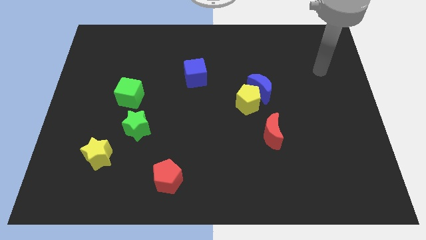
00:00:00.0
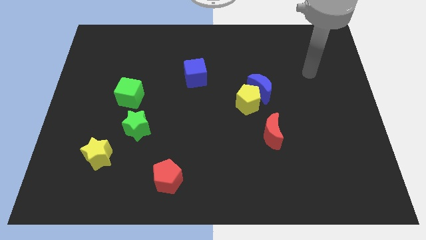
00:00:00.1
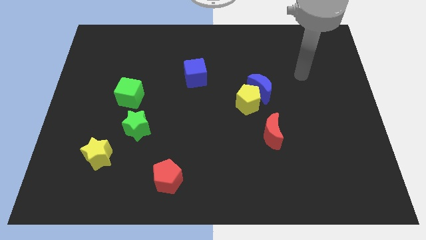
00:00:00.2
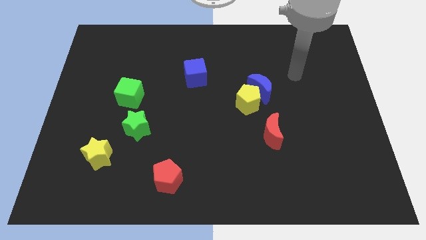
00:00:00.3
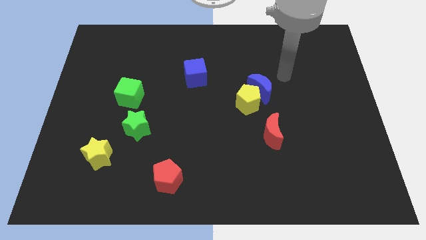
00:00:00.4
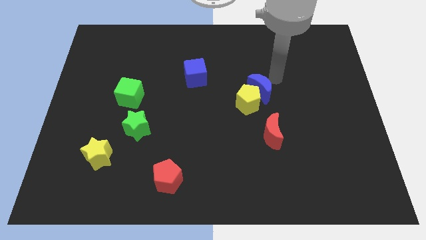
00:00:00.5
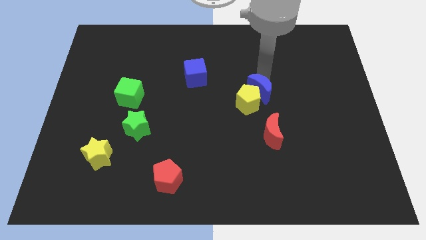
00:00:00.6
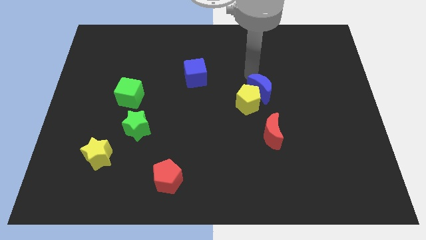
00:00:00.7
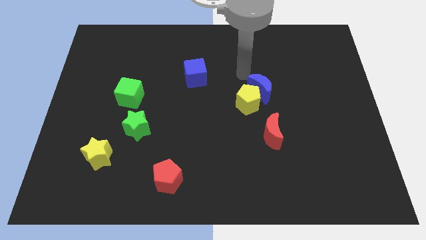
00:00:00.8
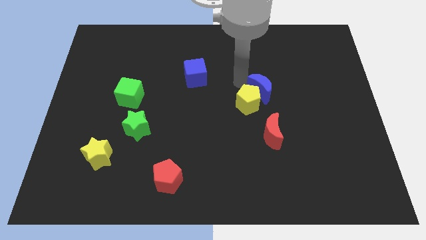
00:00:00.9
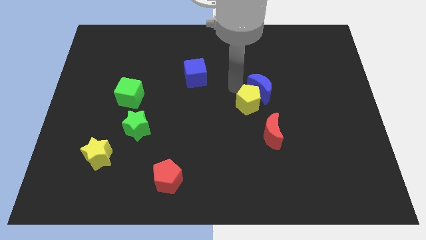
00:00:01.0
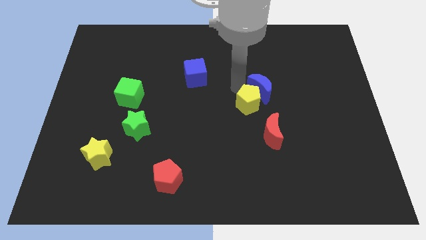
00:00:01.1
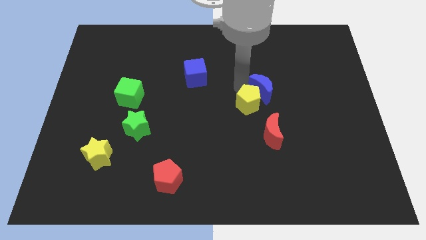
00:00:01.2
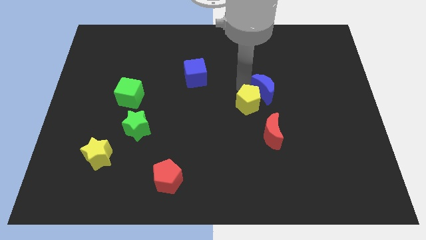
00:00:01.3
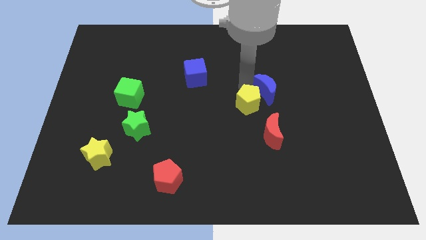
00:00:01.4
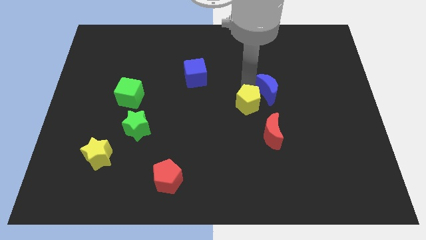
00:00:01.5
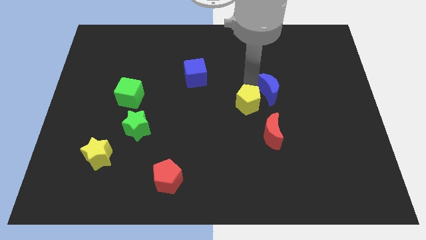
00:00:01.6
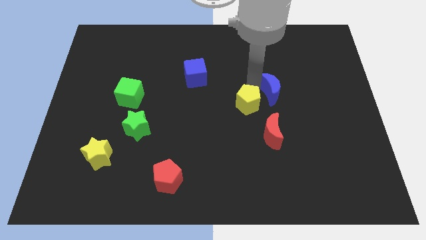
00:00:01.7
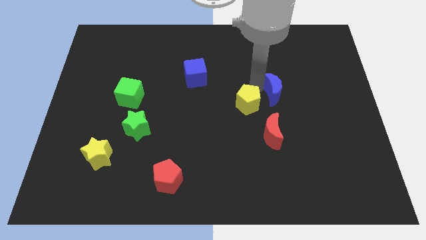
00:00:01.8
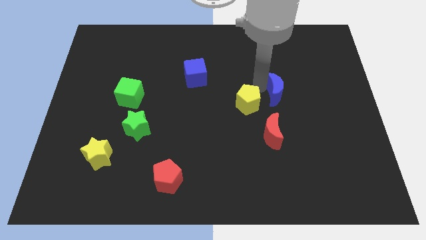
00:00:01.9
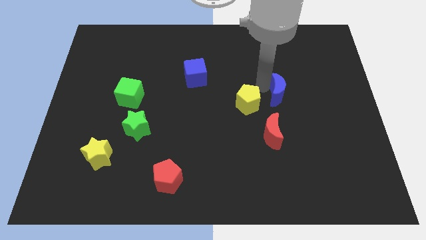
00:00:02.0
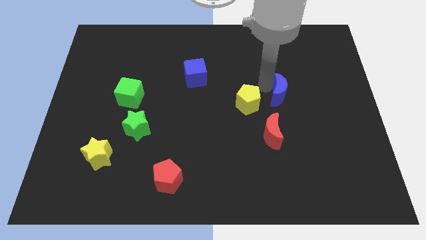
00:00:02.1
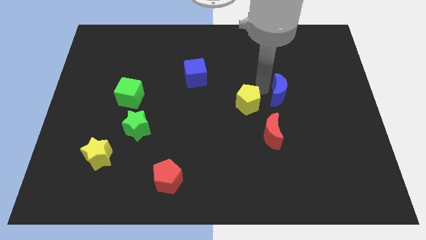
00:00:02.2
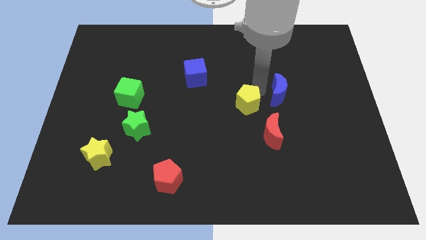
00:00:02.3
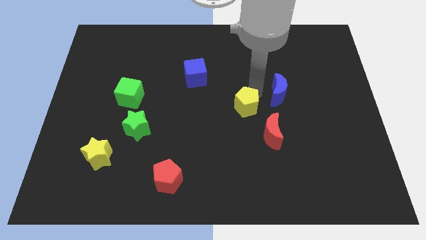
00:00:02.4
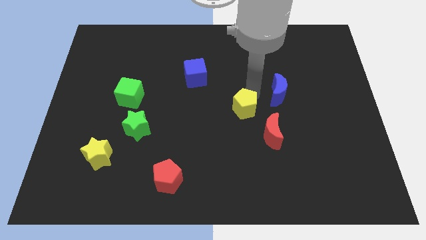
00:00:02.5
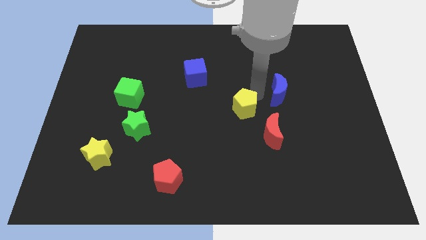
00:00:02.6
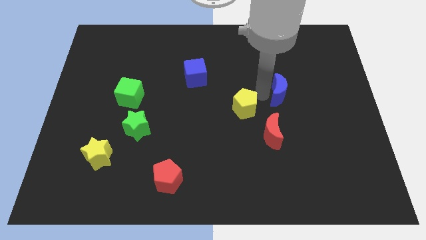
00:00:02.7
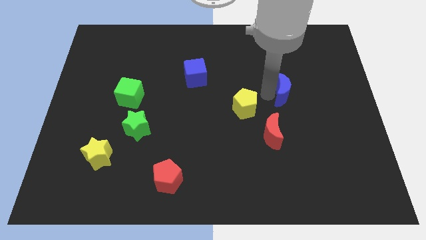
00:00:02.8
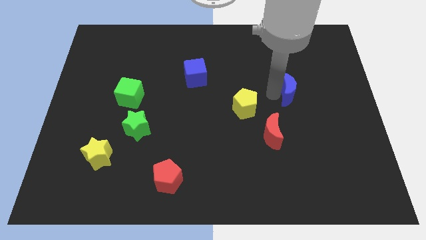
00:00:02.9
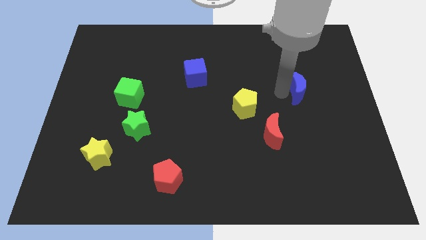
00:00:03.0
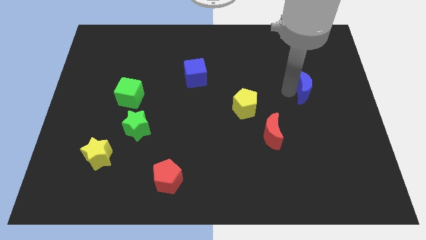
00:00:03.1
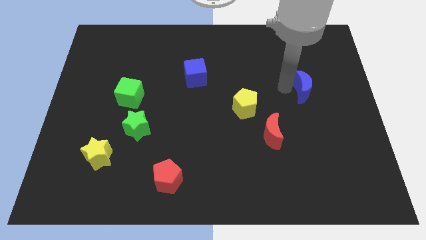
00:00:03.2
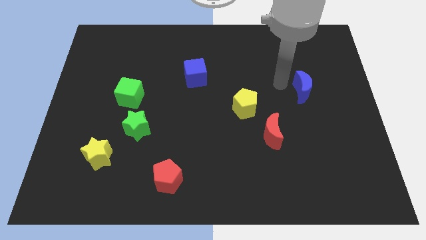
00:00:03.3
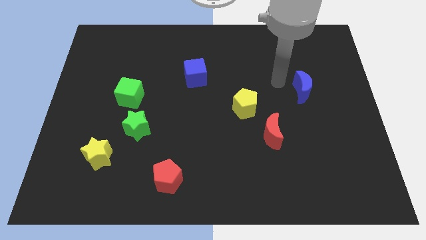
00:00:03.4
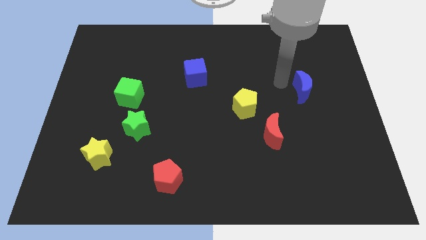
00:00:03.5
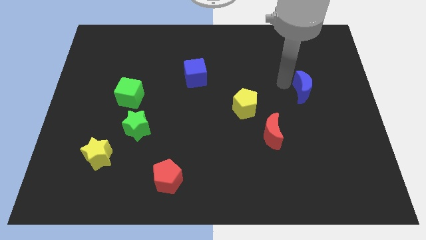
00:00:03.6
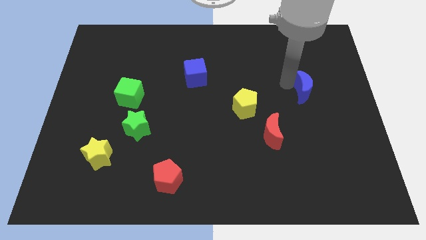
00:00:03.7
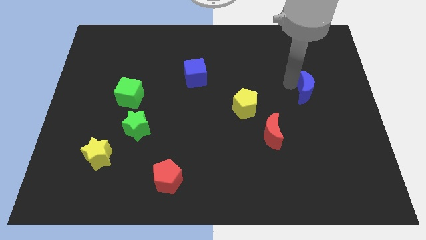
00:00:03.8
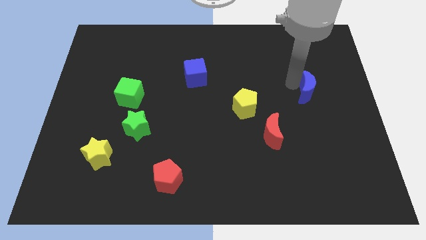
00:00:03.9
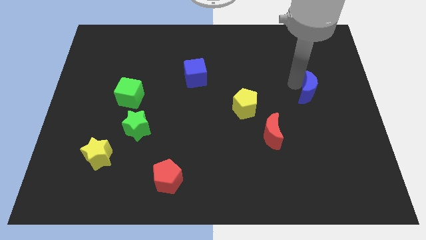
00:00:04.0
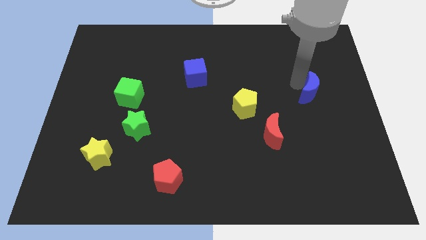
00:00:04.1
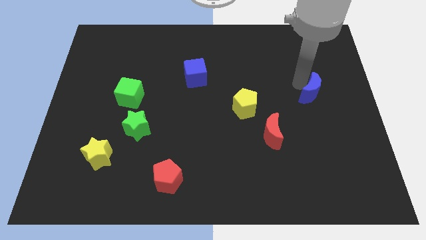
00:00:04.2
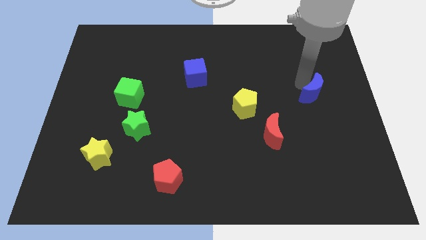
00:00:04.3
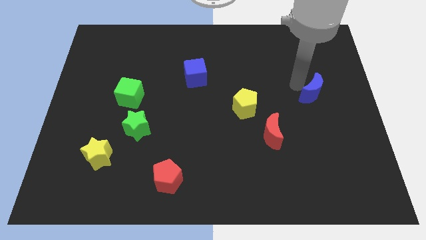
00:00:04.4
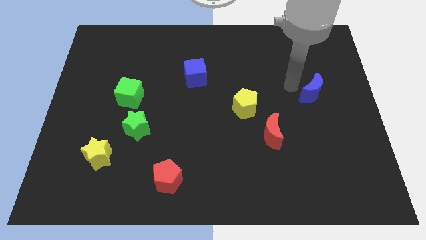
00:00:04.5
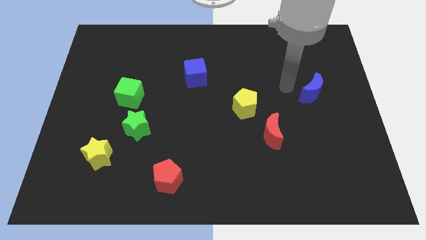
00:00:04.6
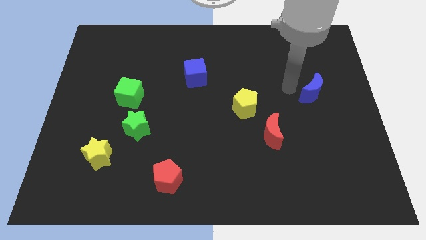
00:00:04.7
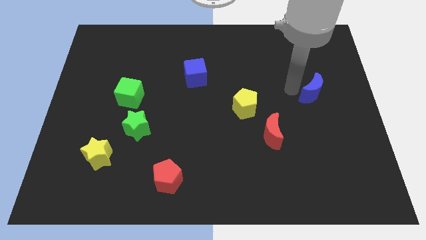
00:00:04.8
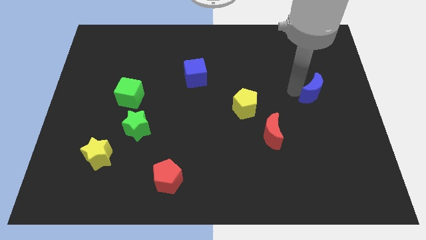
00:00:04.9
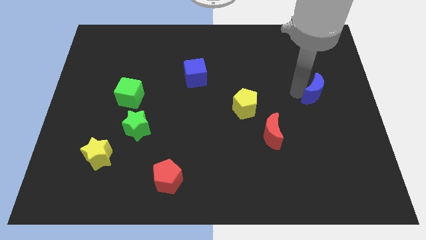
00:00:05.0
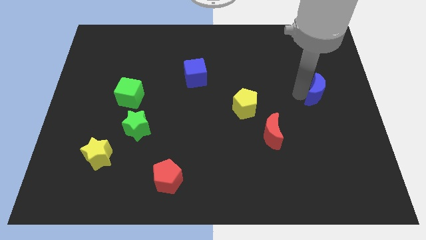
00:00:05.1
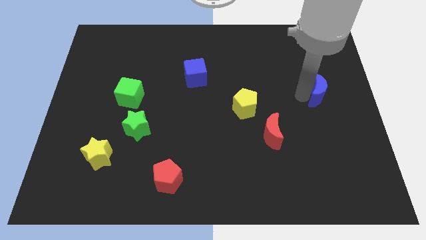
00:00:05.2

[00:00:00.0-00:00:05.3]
put the blue moon to the right side
